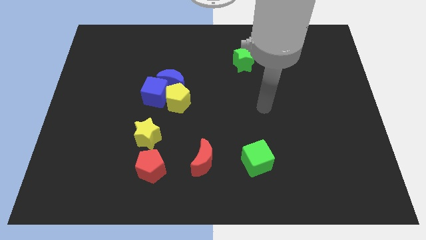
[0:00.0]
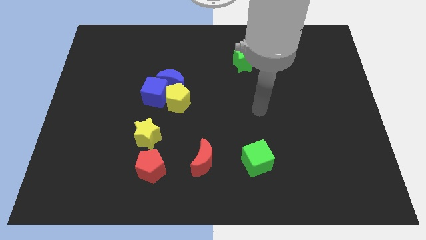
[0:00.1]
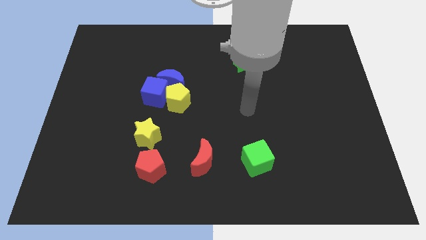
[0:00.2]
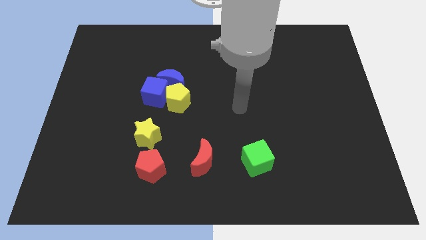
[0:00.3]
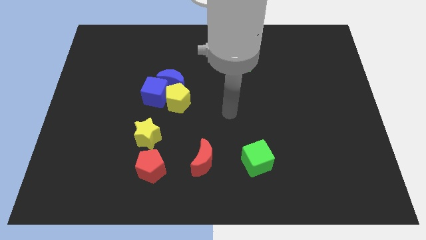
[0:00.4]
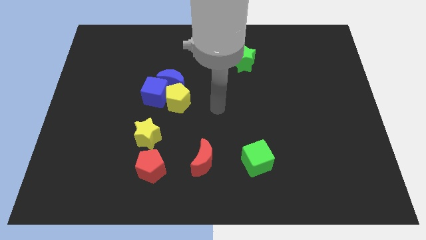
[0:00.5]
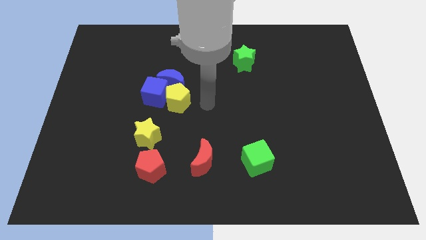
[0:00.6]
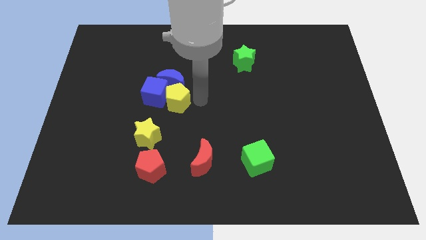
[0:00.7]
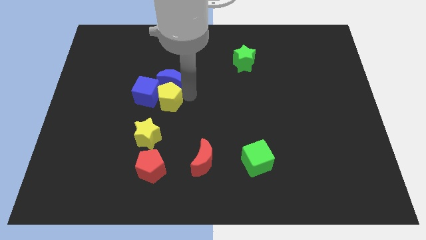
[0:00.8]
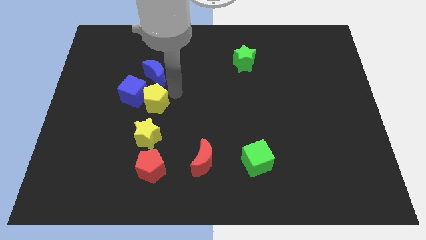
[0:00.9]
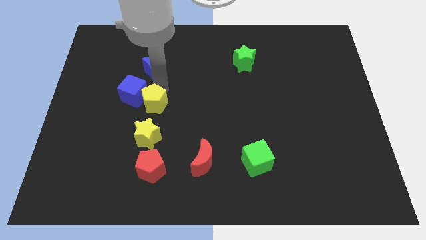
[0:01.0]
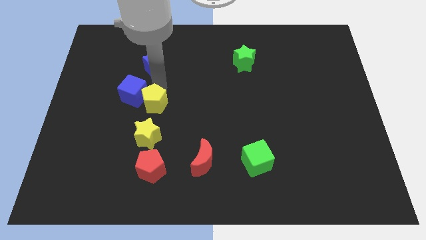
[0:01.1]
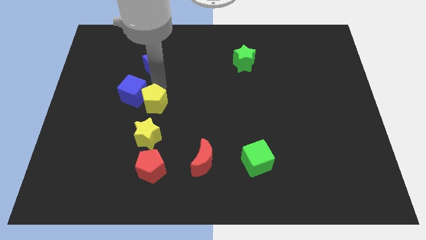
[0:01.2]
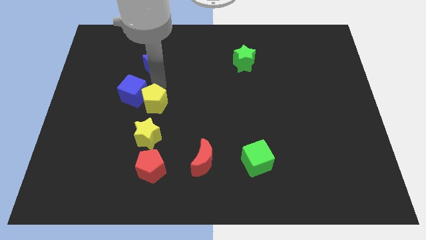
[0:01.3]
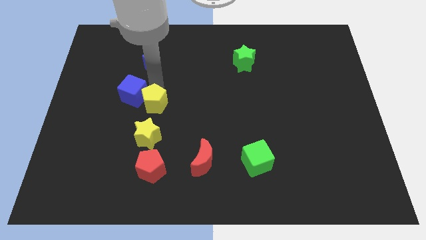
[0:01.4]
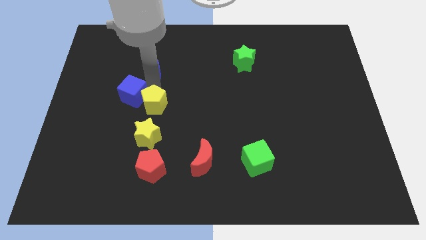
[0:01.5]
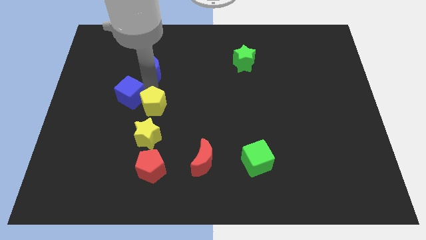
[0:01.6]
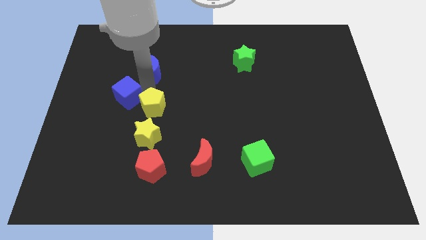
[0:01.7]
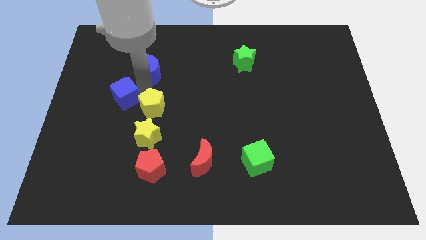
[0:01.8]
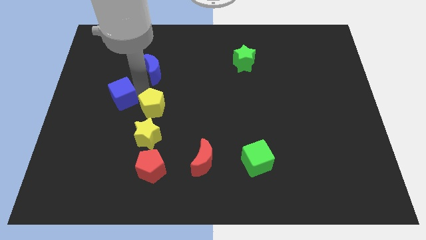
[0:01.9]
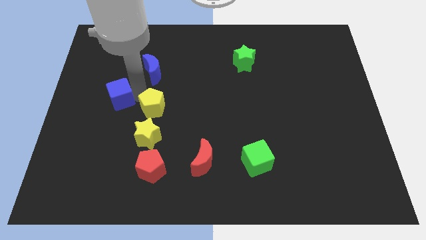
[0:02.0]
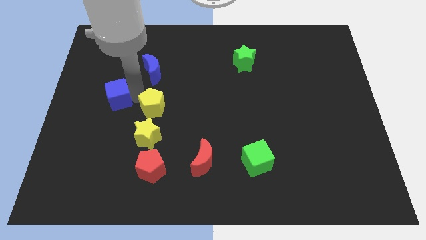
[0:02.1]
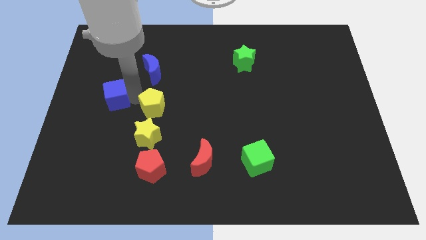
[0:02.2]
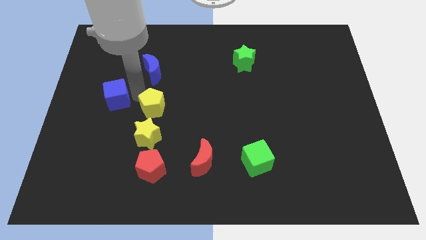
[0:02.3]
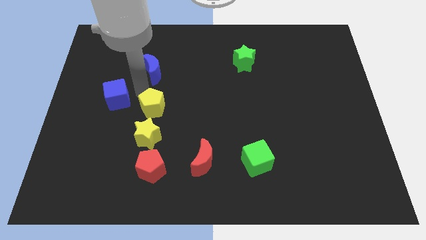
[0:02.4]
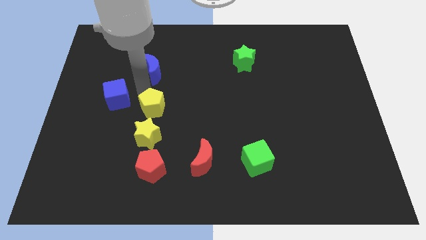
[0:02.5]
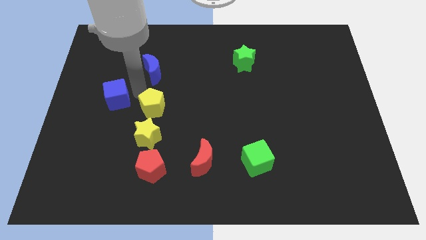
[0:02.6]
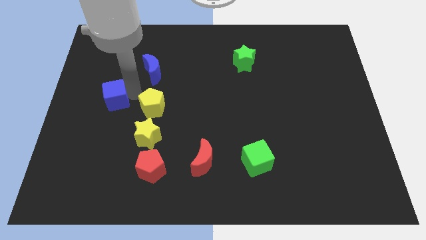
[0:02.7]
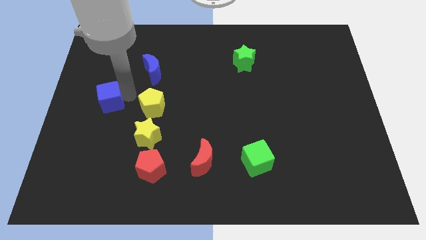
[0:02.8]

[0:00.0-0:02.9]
pull the blue cube apart from the blue moon and yellow pentagon

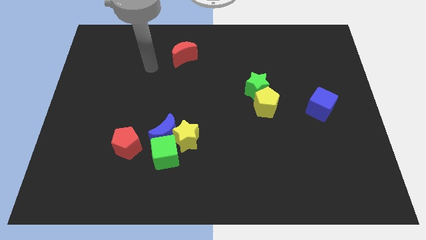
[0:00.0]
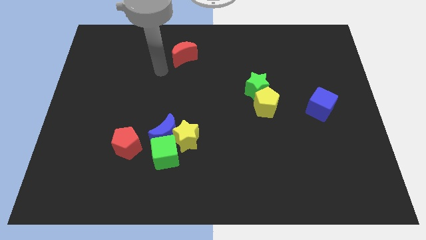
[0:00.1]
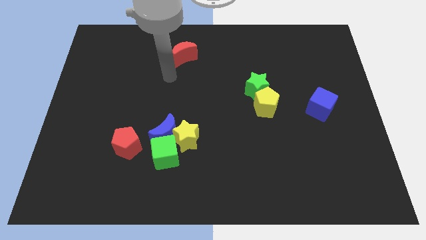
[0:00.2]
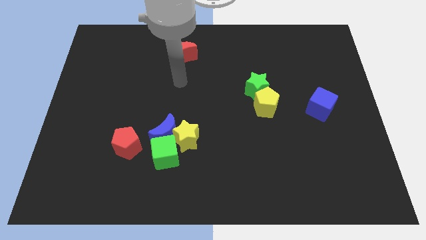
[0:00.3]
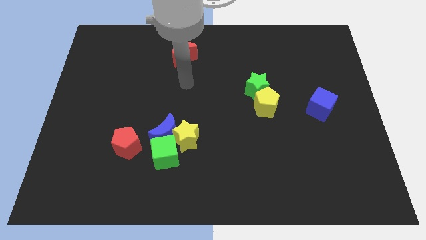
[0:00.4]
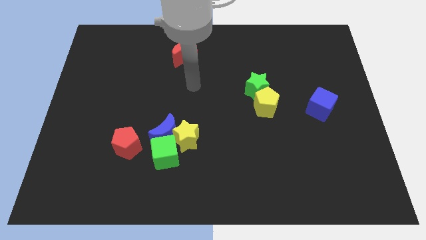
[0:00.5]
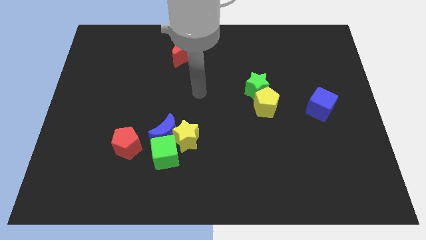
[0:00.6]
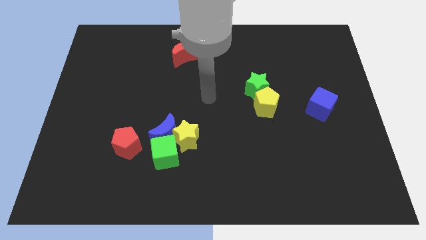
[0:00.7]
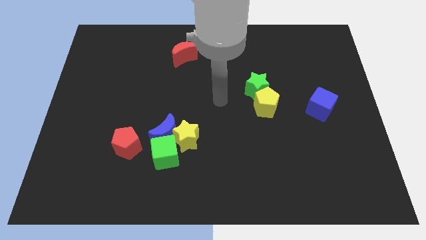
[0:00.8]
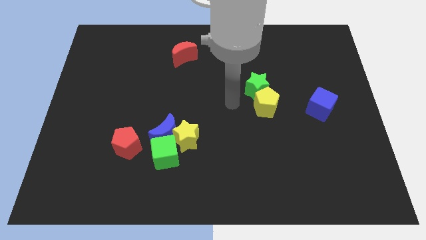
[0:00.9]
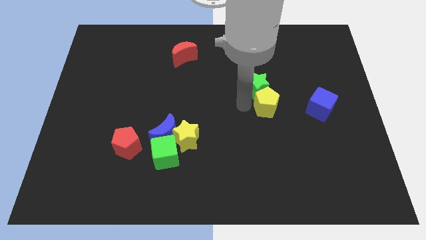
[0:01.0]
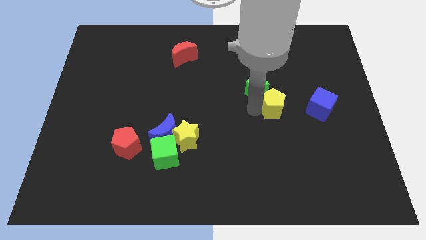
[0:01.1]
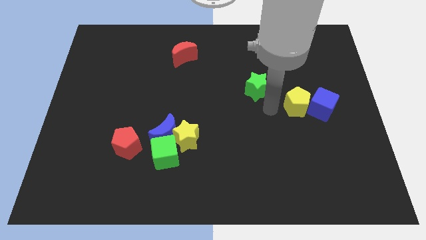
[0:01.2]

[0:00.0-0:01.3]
pull the green star apart from the yellow pentagon

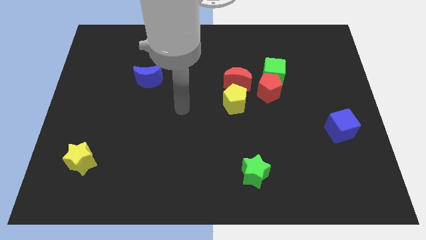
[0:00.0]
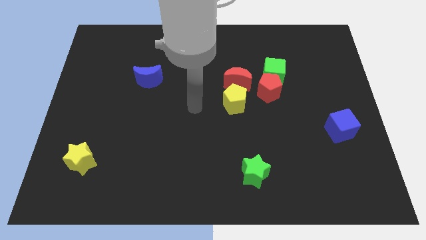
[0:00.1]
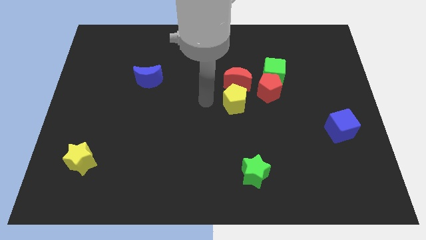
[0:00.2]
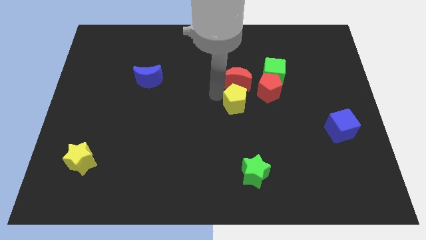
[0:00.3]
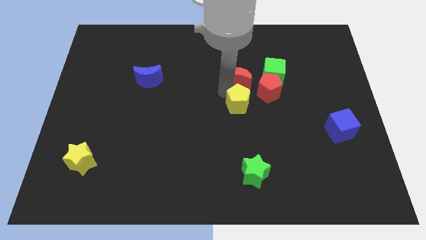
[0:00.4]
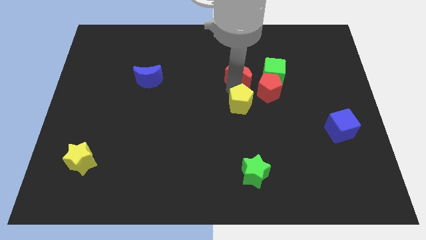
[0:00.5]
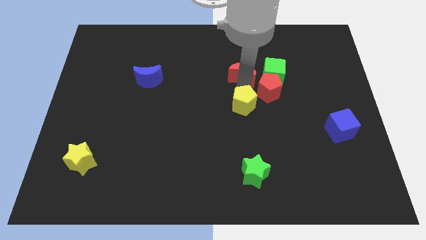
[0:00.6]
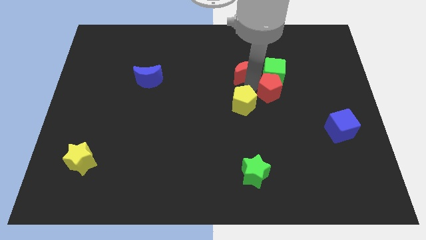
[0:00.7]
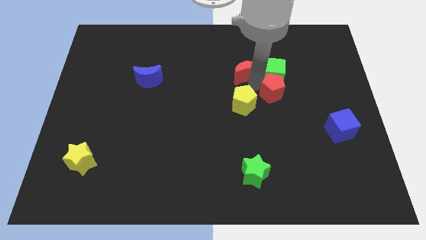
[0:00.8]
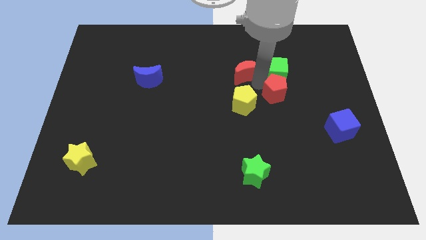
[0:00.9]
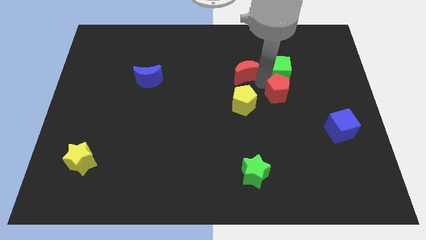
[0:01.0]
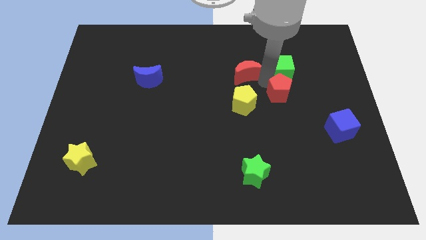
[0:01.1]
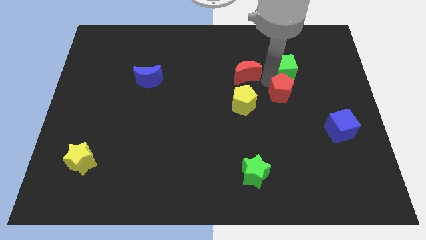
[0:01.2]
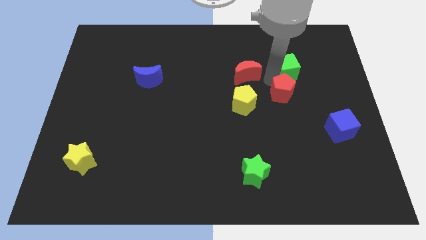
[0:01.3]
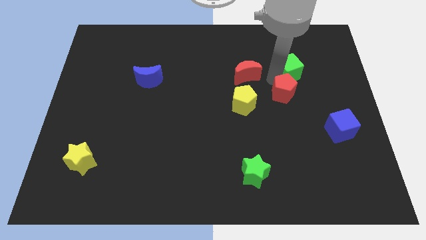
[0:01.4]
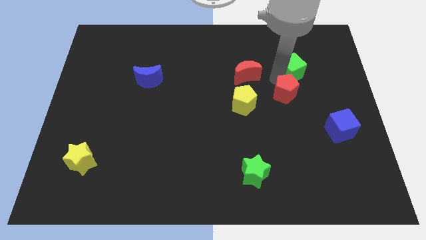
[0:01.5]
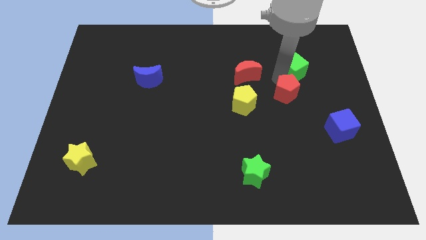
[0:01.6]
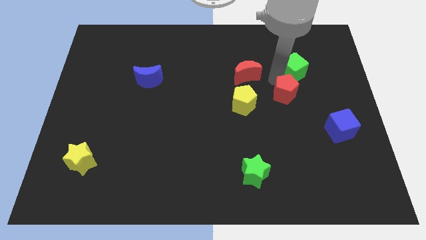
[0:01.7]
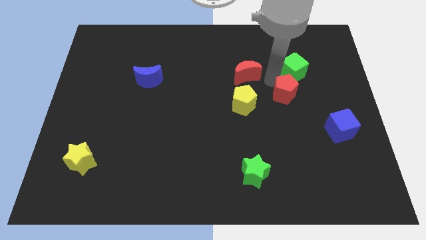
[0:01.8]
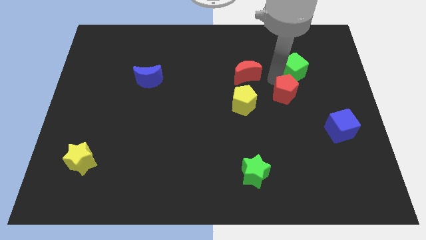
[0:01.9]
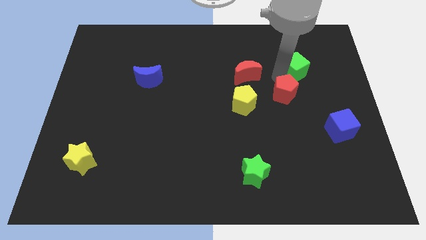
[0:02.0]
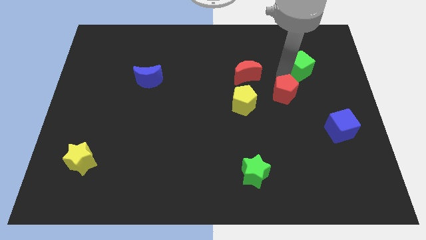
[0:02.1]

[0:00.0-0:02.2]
separate the green cube from the red pentagon and red moon

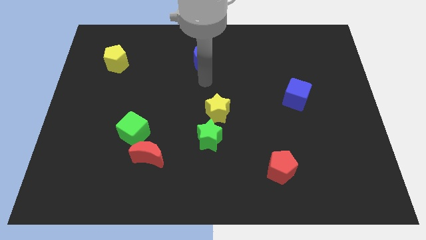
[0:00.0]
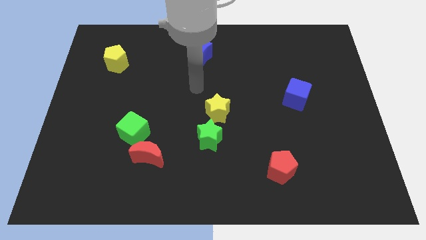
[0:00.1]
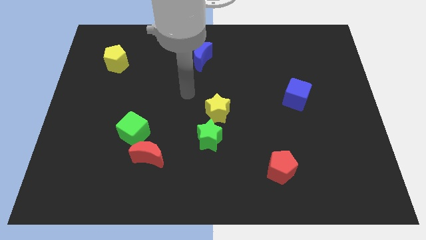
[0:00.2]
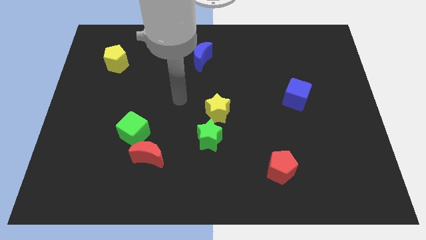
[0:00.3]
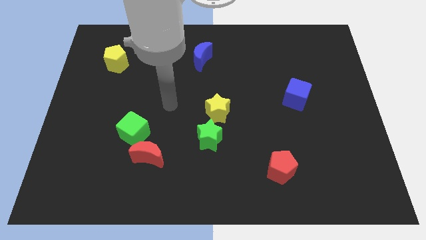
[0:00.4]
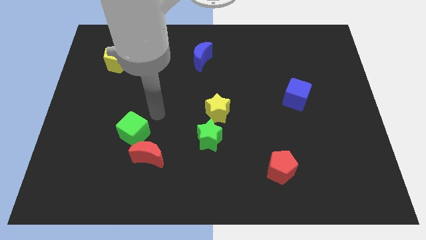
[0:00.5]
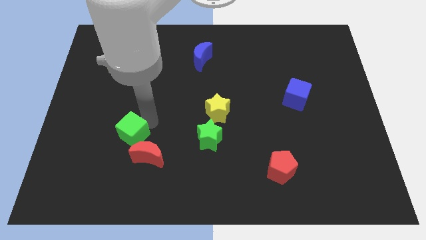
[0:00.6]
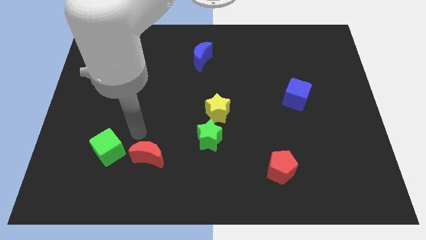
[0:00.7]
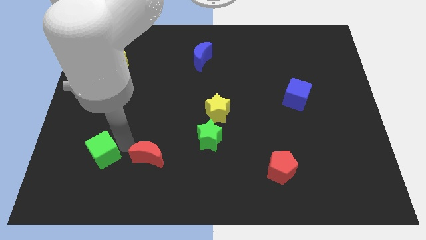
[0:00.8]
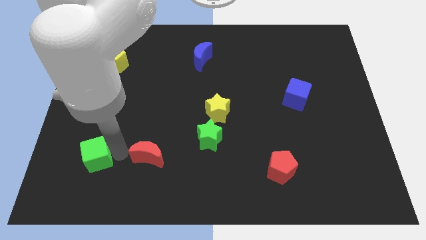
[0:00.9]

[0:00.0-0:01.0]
move the red moon away from the green cube

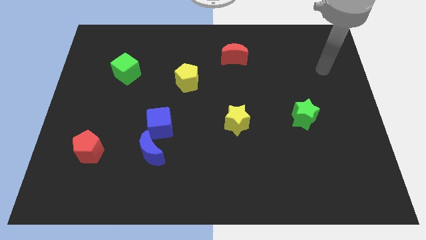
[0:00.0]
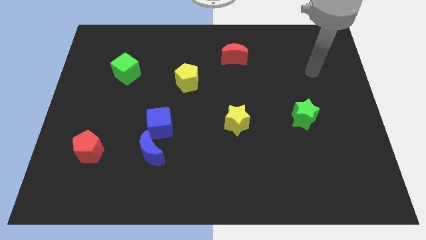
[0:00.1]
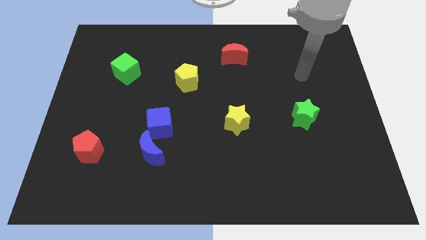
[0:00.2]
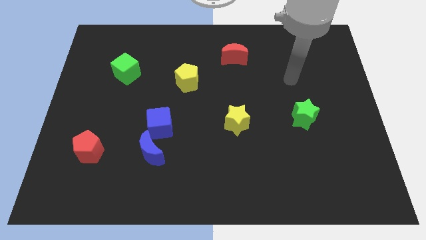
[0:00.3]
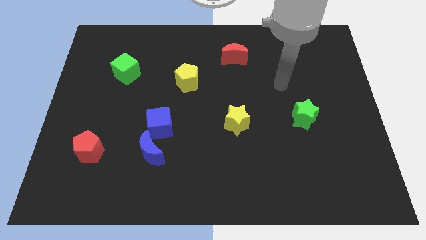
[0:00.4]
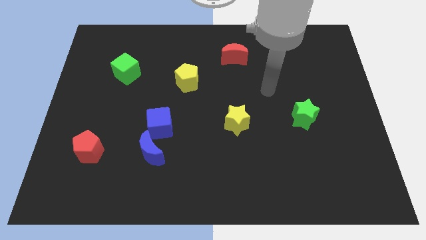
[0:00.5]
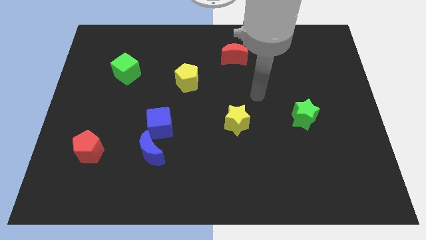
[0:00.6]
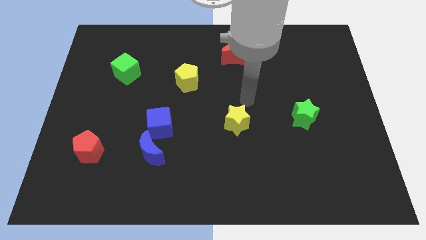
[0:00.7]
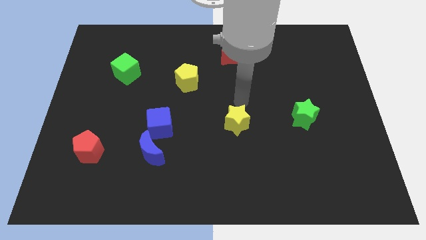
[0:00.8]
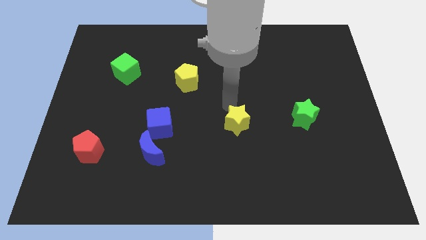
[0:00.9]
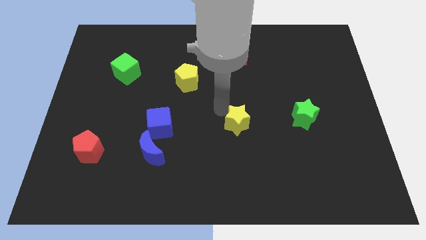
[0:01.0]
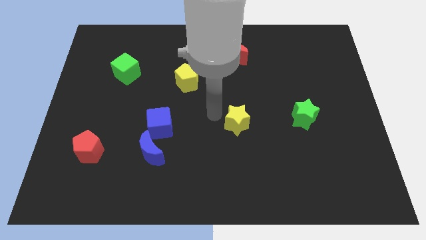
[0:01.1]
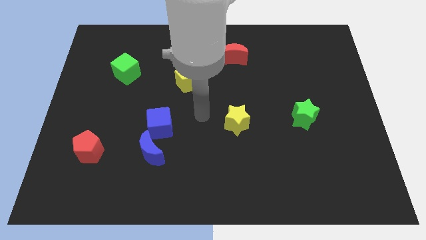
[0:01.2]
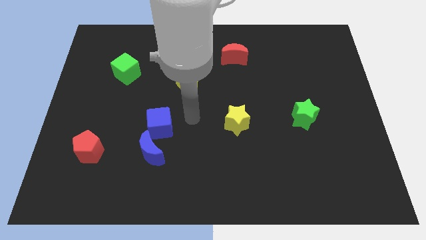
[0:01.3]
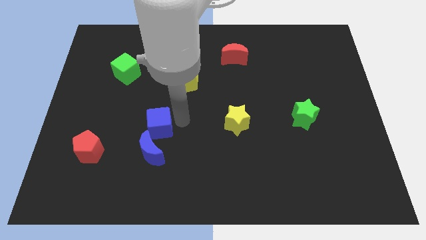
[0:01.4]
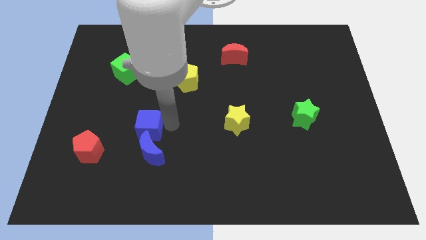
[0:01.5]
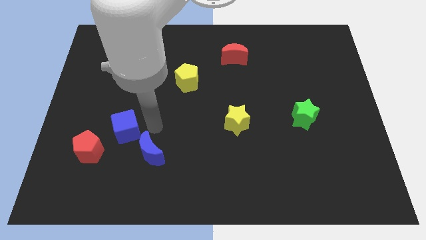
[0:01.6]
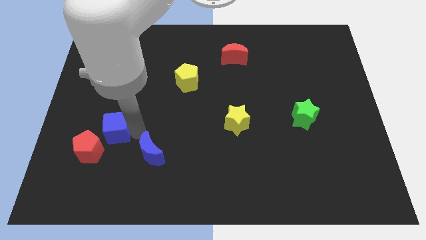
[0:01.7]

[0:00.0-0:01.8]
move the blue moon away from the blue cube
